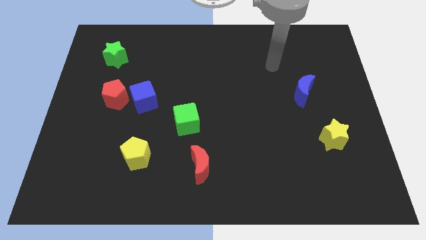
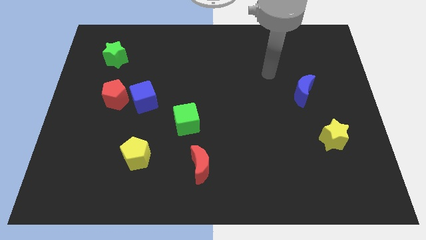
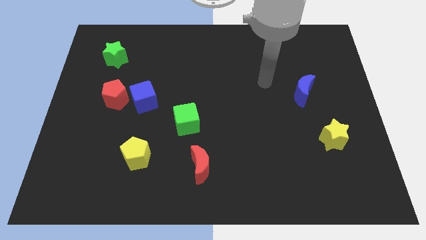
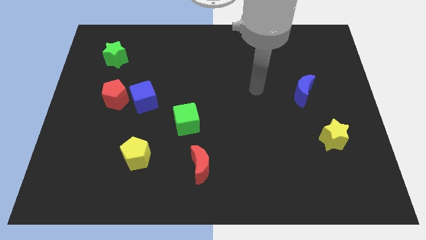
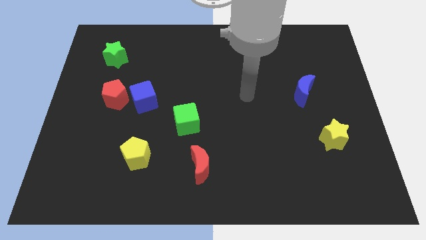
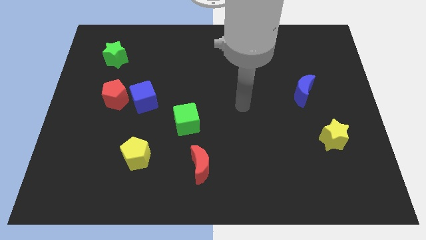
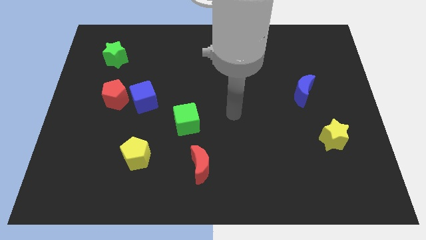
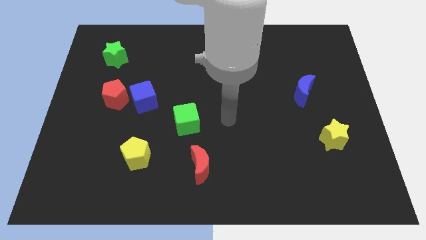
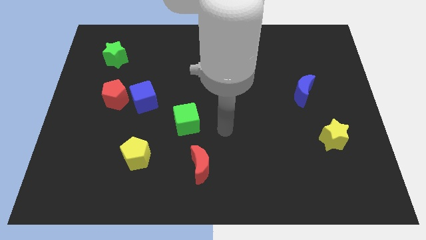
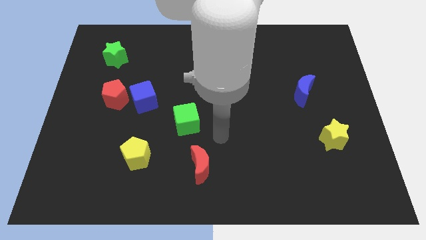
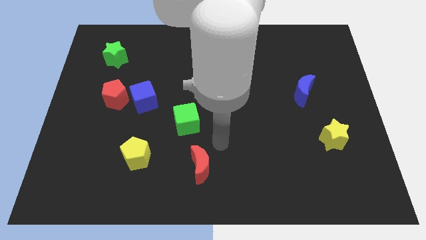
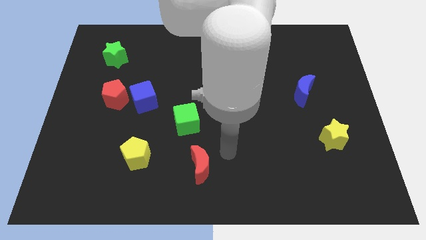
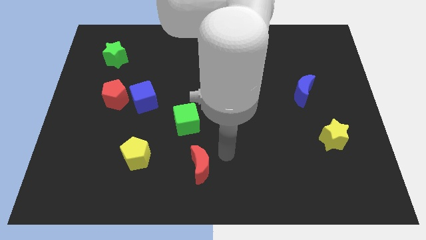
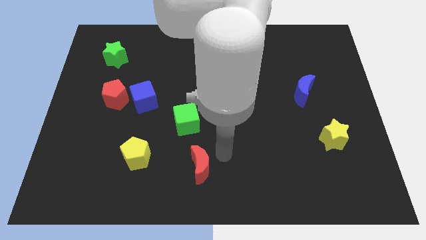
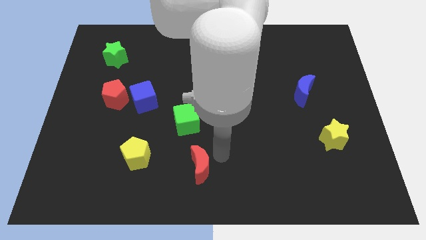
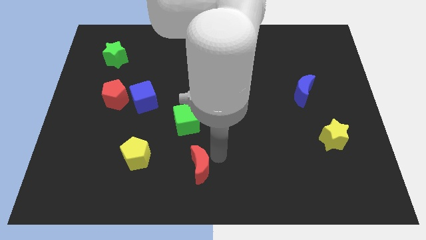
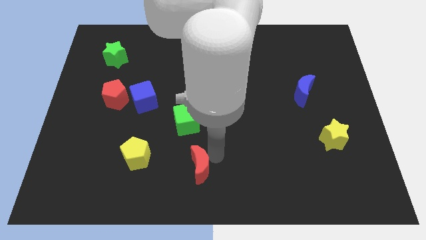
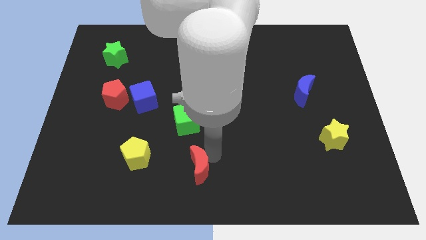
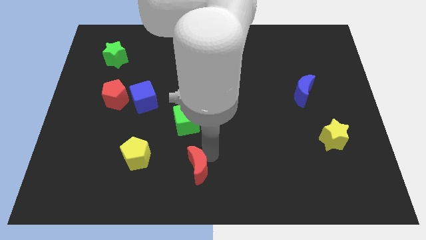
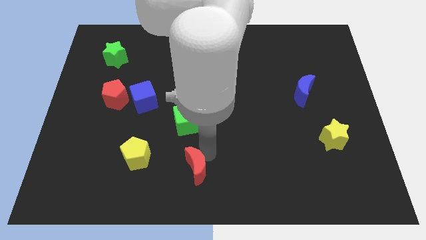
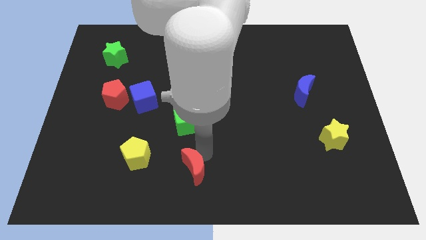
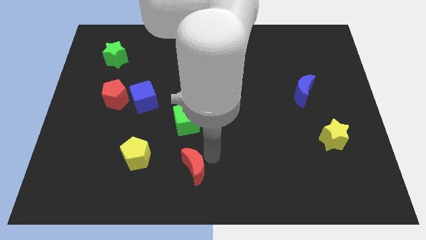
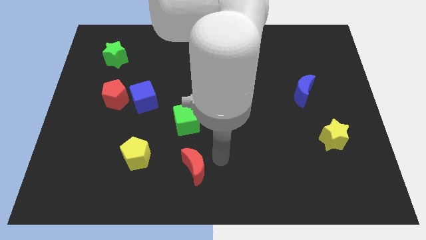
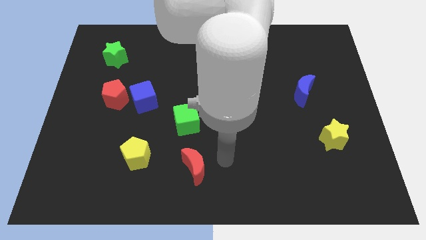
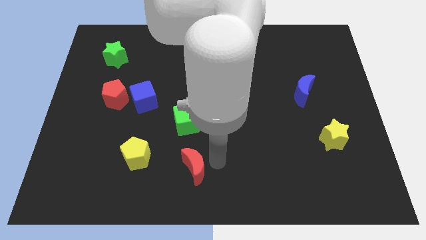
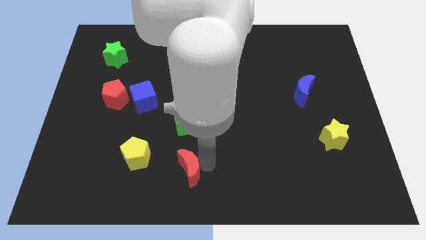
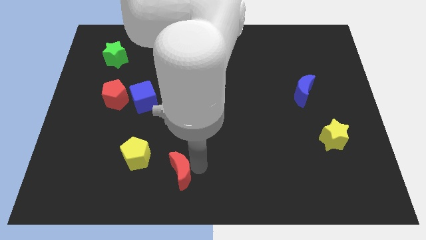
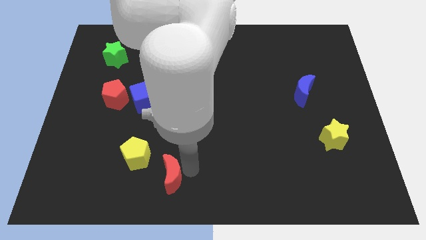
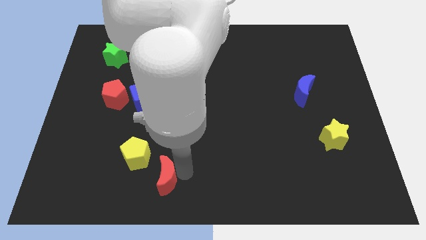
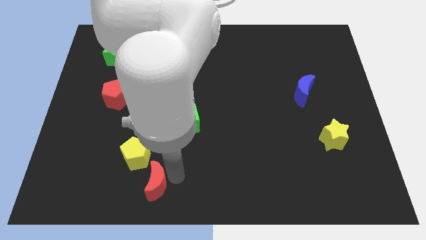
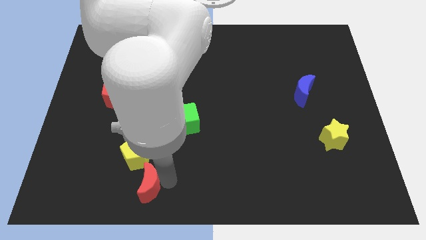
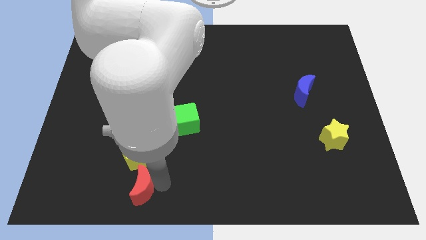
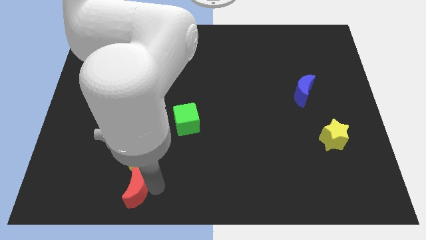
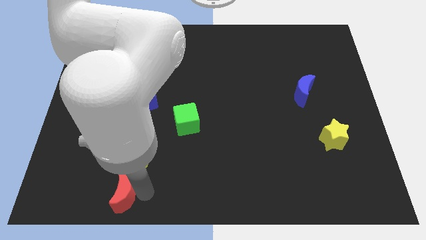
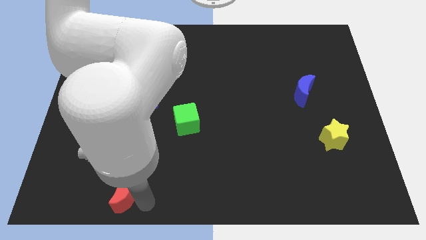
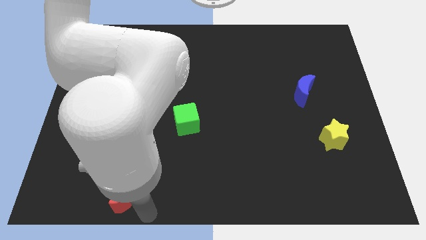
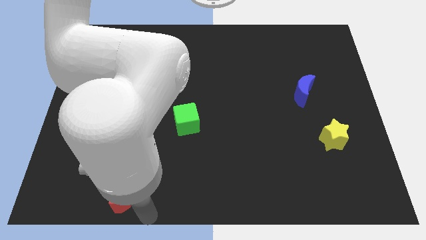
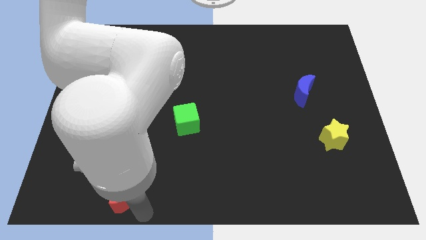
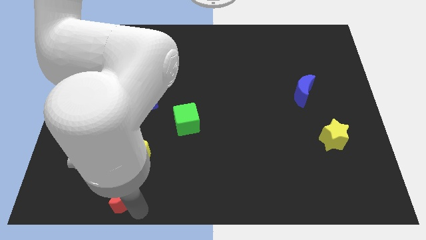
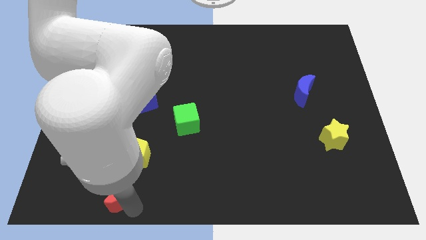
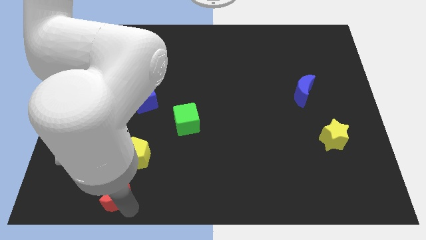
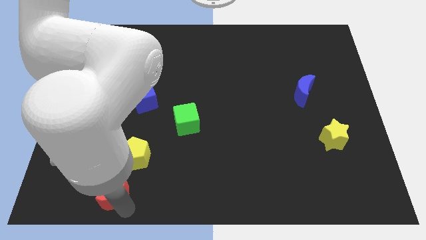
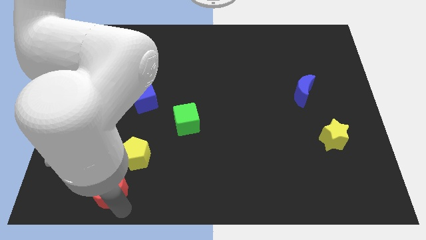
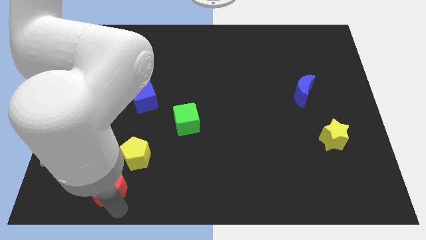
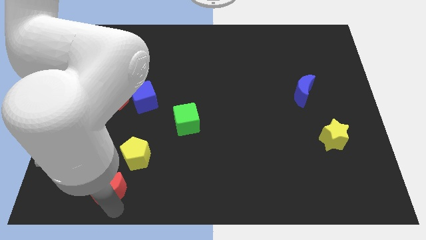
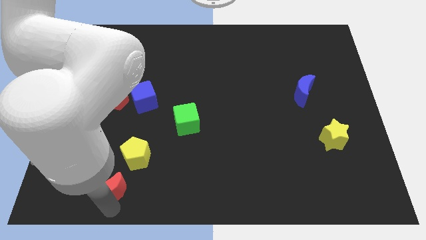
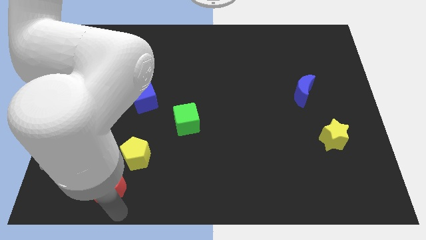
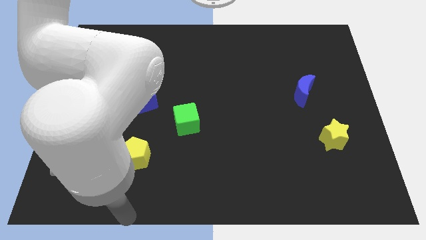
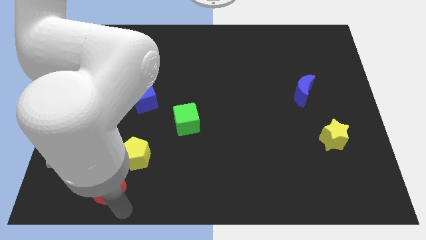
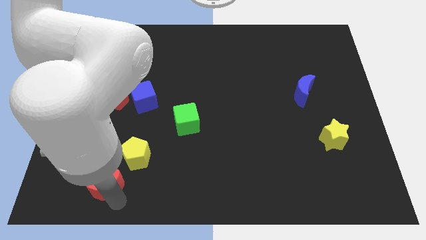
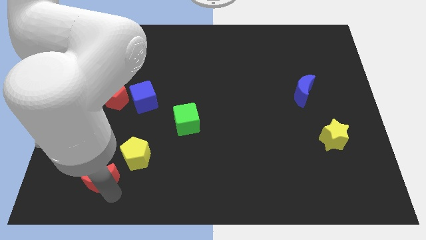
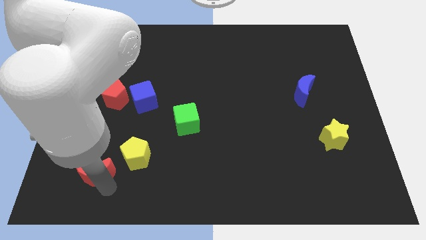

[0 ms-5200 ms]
put the red moon just left of the yellow pentagon
